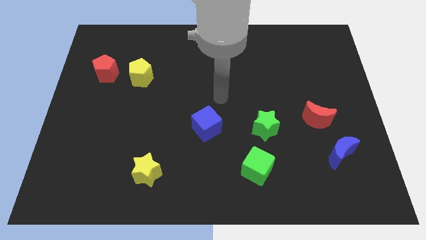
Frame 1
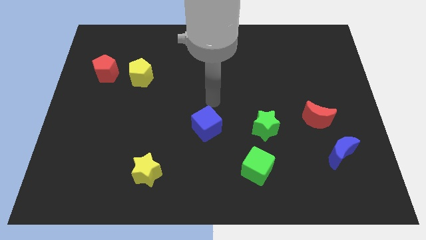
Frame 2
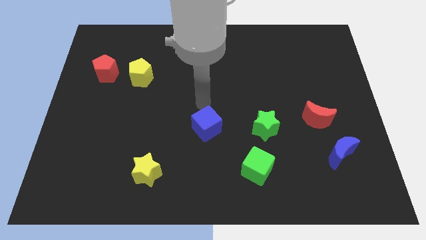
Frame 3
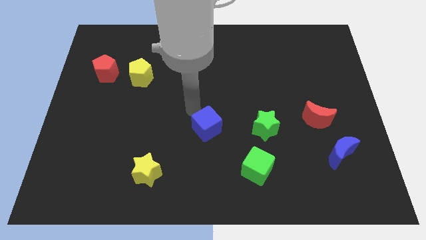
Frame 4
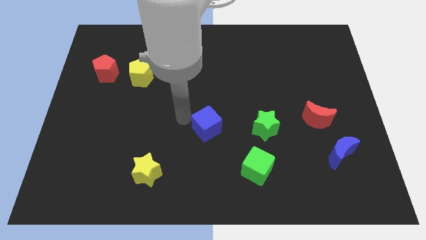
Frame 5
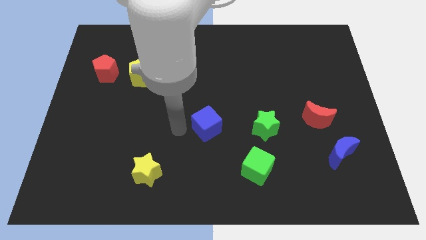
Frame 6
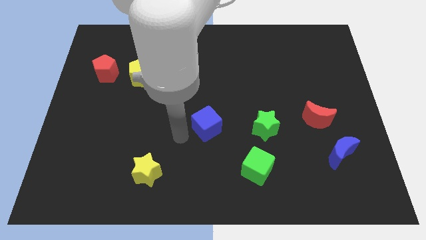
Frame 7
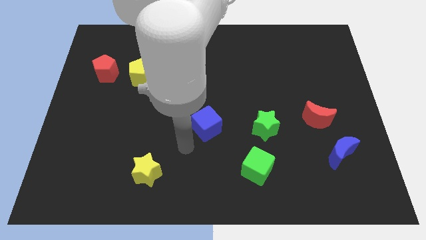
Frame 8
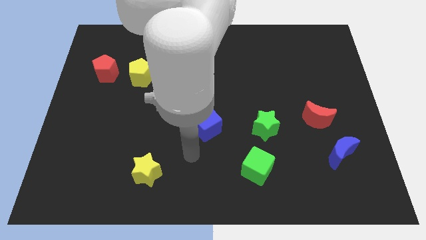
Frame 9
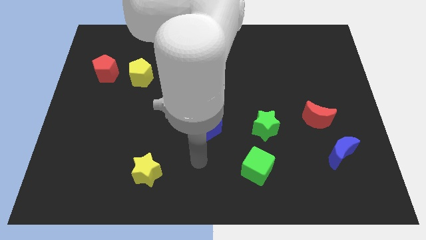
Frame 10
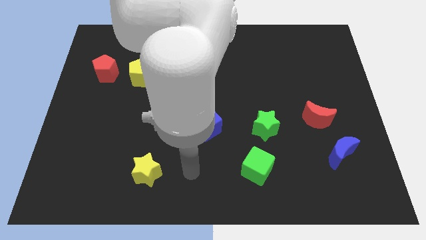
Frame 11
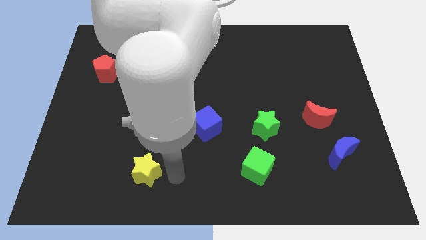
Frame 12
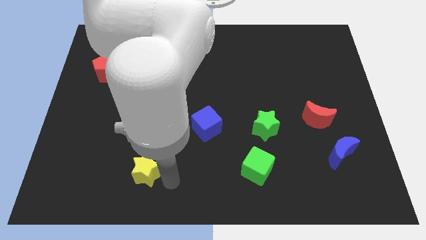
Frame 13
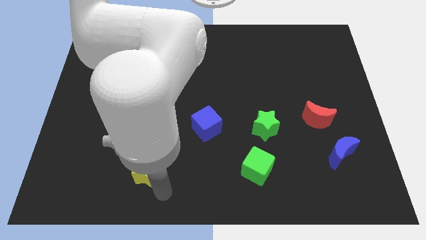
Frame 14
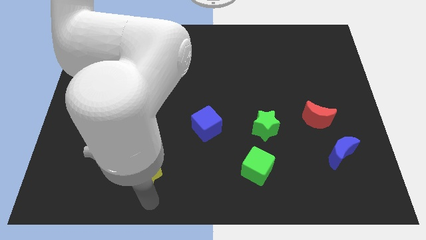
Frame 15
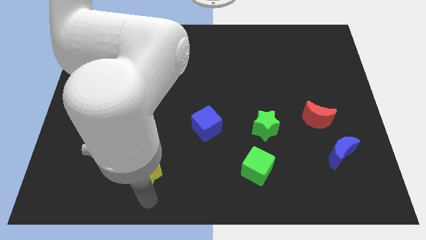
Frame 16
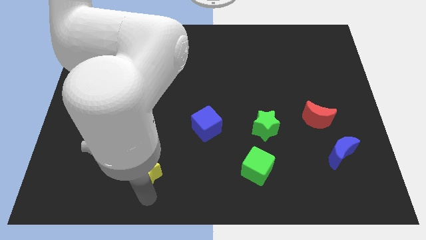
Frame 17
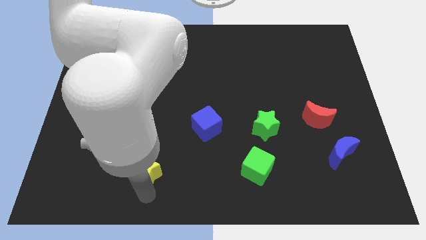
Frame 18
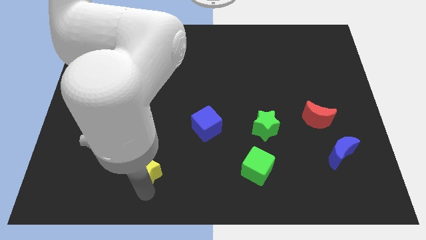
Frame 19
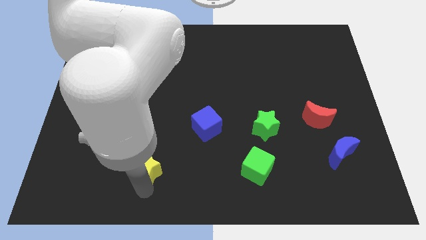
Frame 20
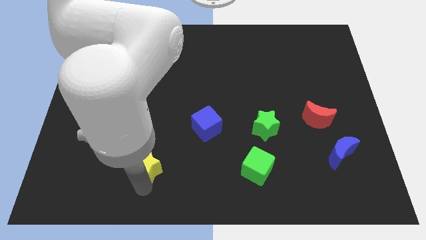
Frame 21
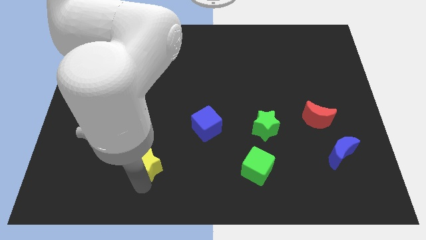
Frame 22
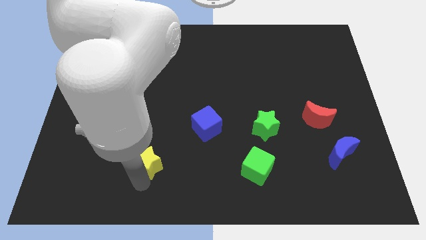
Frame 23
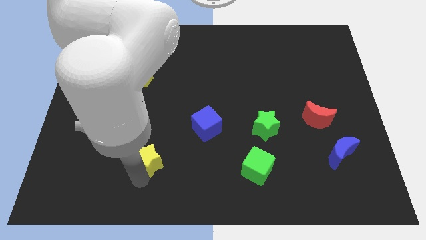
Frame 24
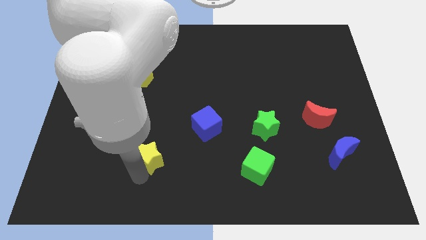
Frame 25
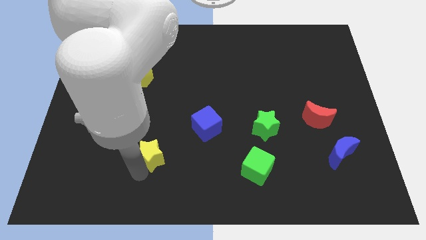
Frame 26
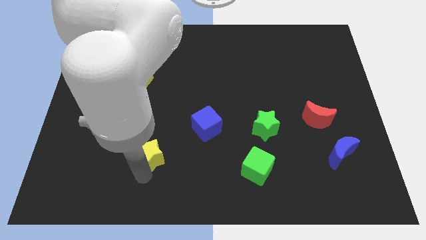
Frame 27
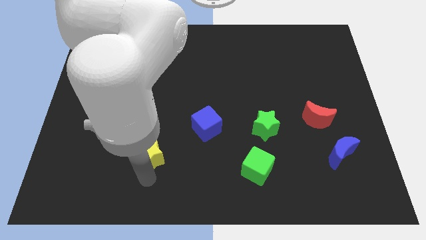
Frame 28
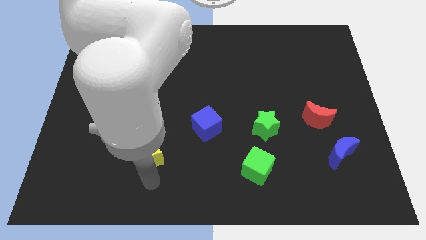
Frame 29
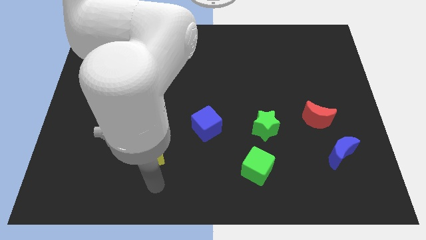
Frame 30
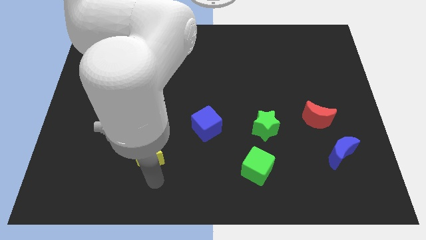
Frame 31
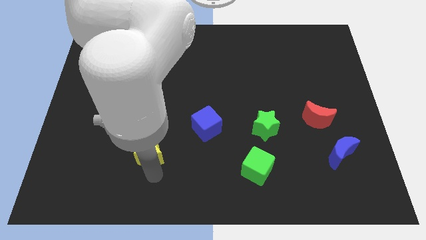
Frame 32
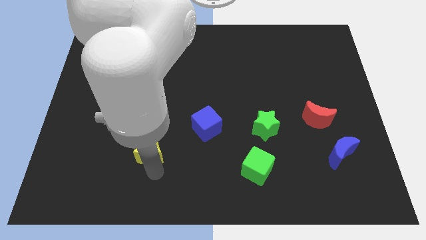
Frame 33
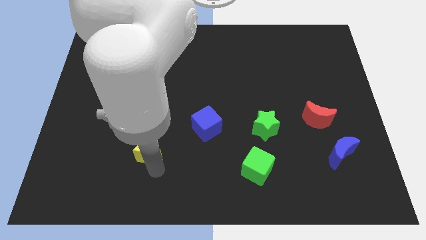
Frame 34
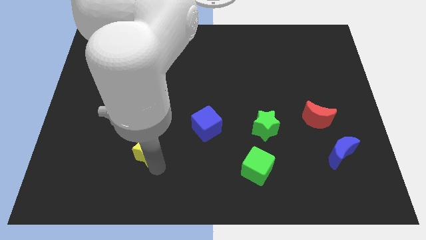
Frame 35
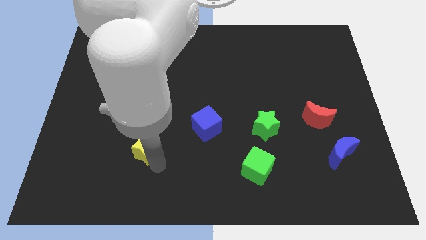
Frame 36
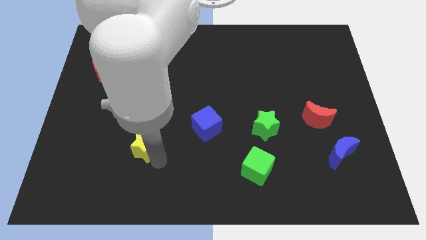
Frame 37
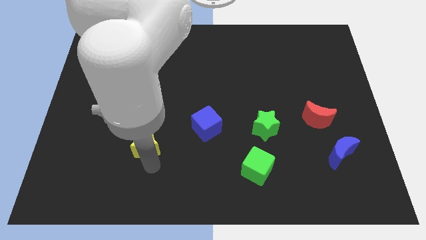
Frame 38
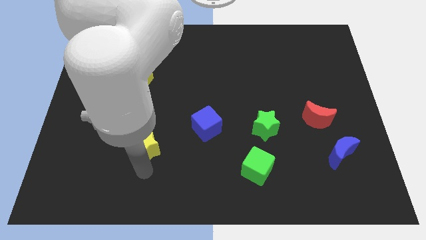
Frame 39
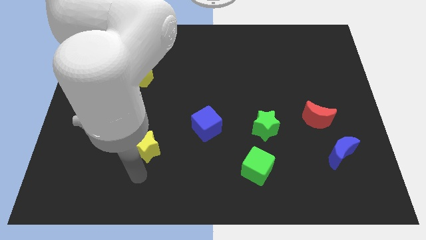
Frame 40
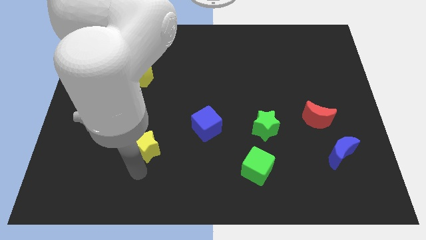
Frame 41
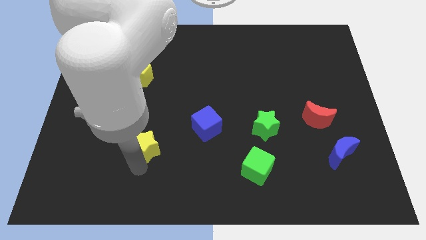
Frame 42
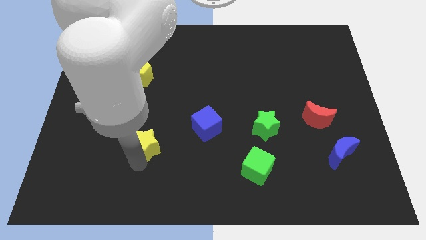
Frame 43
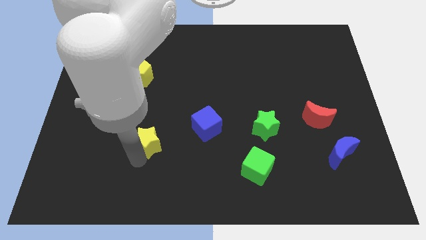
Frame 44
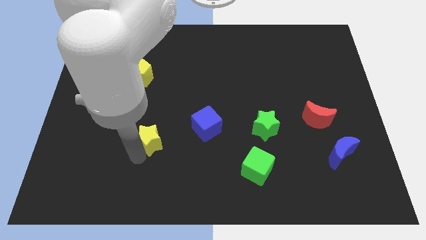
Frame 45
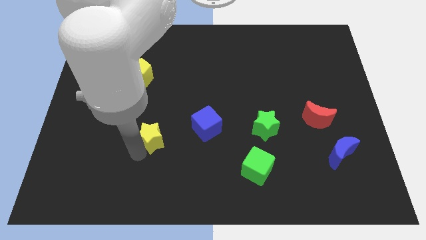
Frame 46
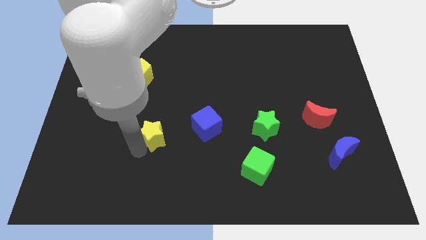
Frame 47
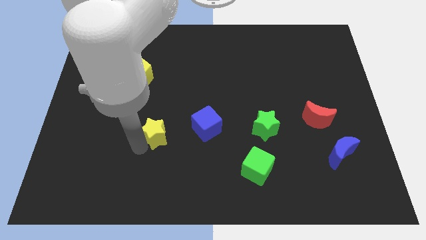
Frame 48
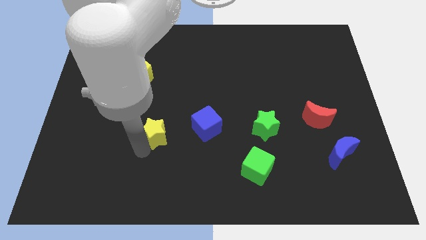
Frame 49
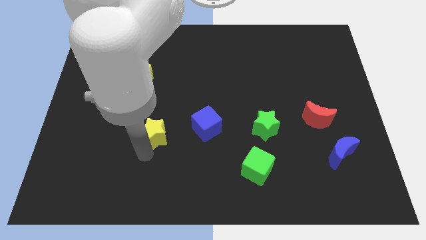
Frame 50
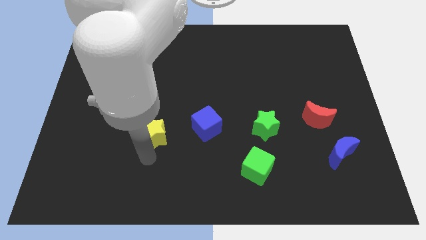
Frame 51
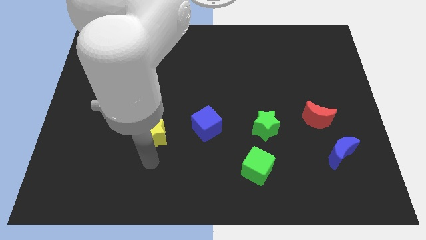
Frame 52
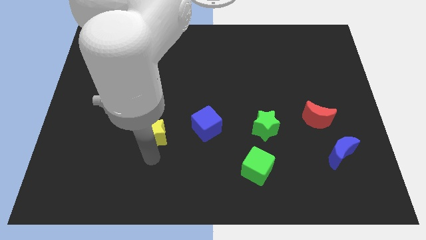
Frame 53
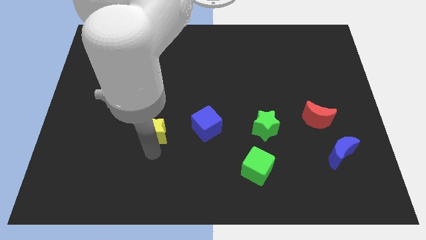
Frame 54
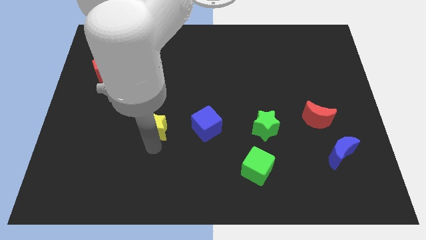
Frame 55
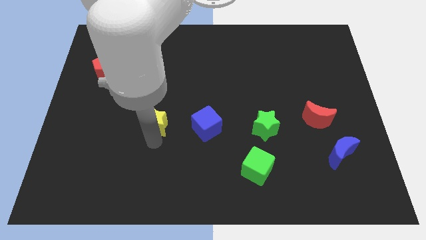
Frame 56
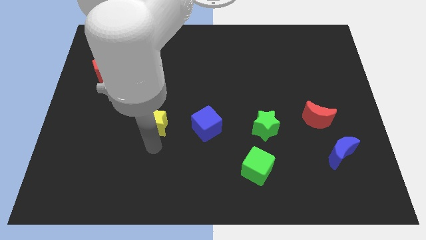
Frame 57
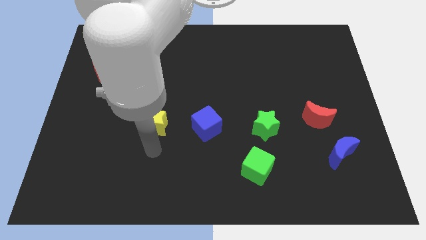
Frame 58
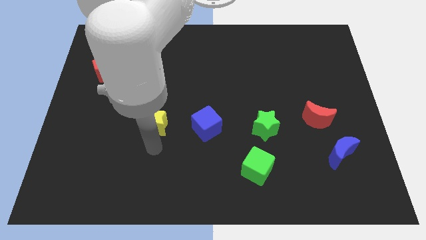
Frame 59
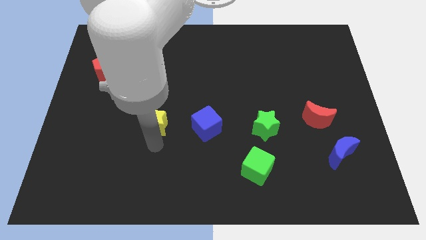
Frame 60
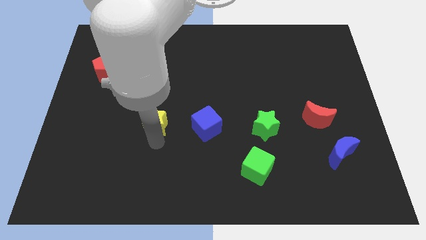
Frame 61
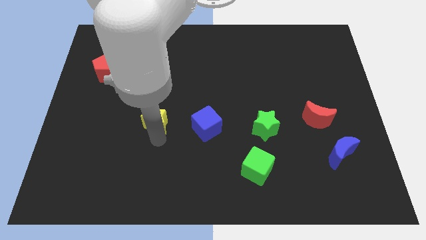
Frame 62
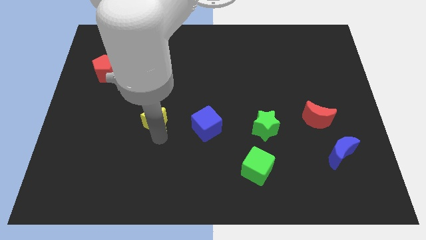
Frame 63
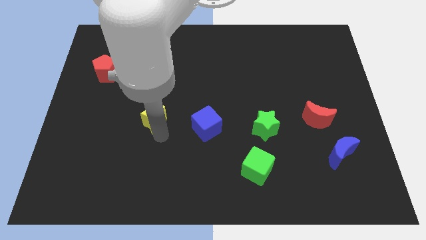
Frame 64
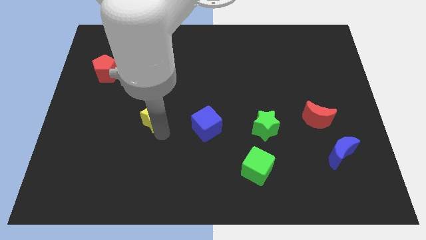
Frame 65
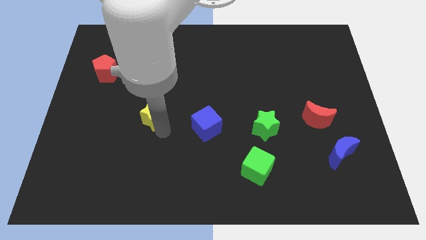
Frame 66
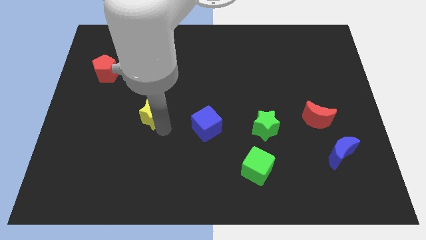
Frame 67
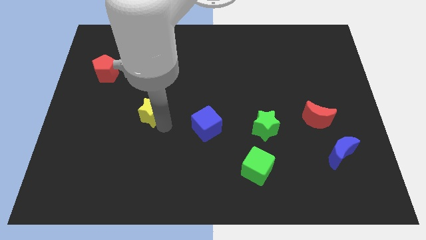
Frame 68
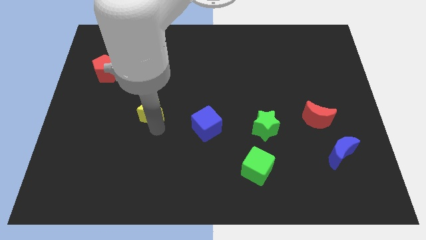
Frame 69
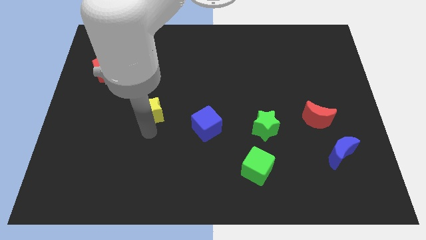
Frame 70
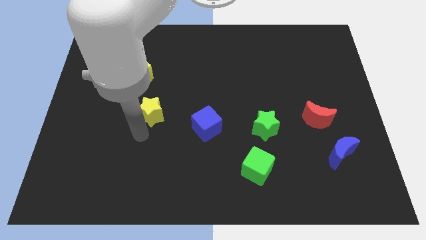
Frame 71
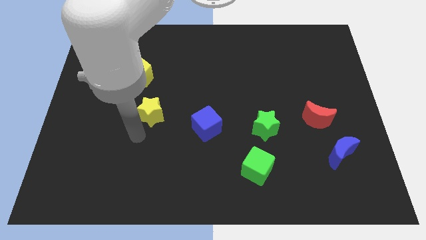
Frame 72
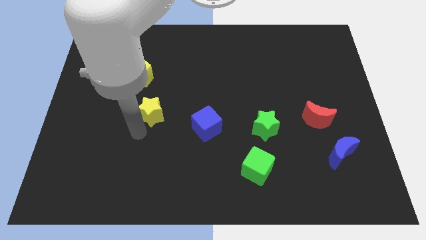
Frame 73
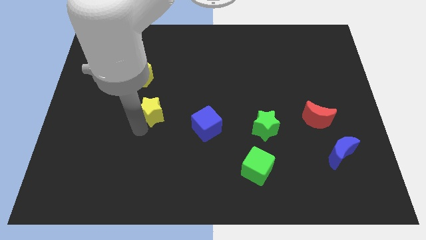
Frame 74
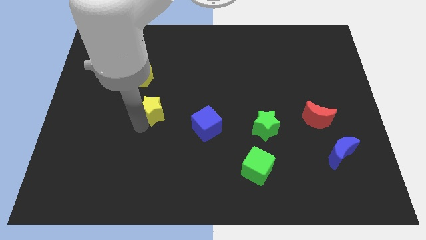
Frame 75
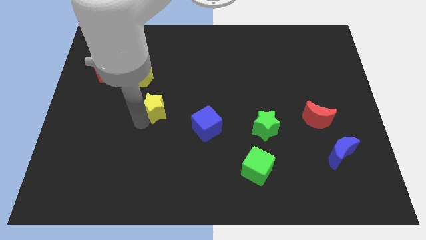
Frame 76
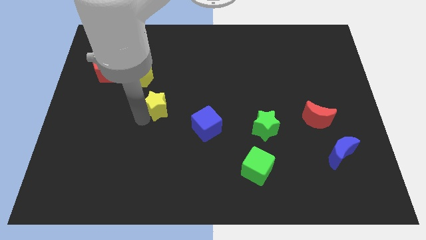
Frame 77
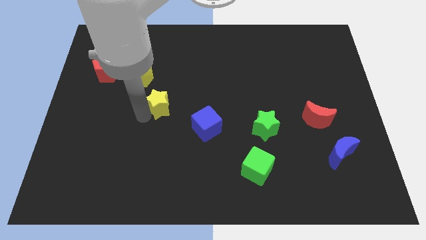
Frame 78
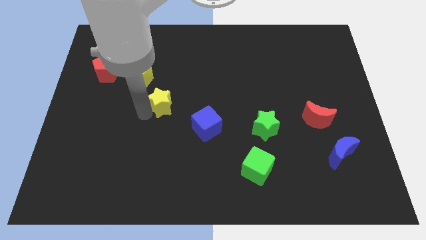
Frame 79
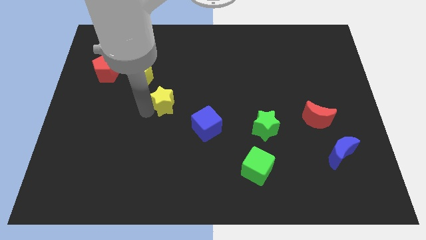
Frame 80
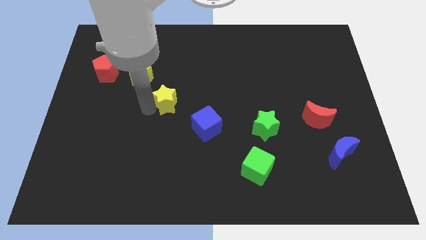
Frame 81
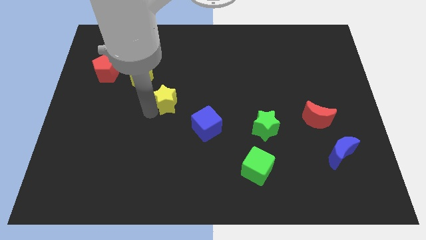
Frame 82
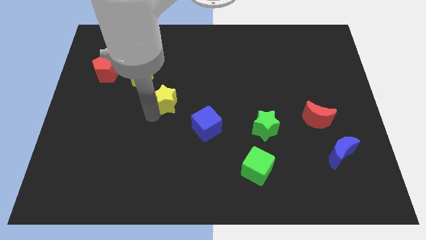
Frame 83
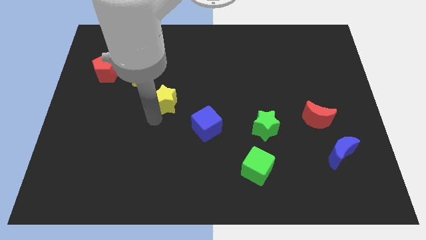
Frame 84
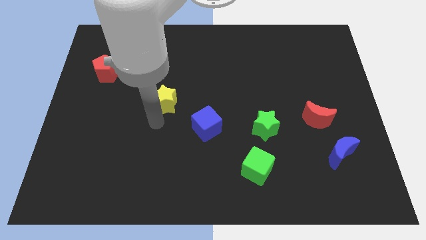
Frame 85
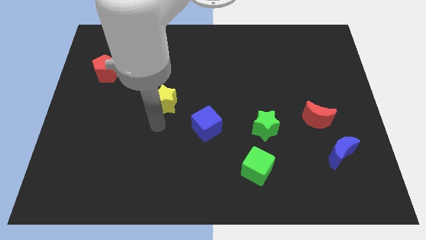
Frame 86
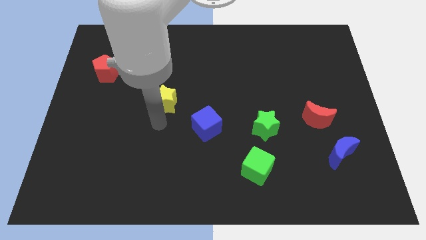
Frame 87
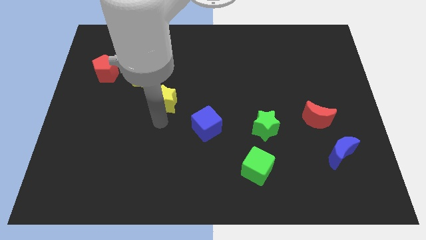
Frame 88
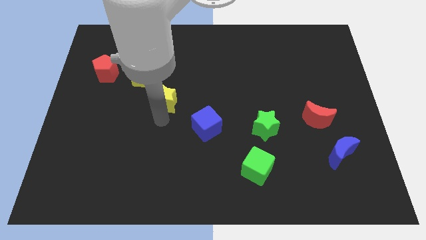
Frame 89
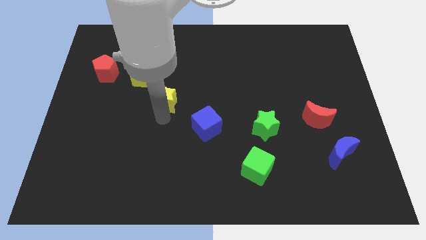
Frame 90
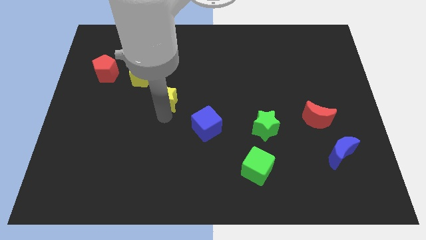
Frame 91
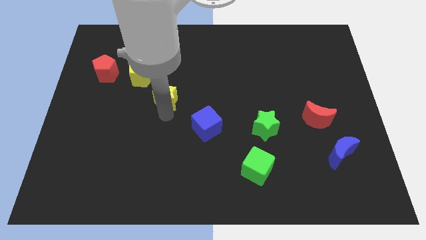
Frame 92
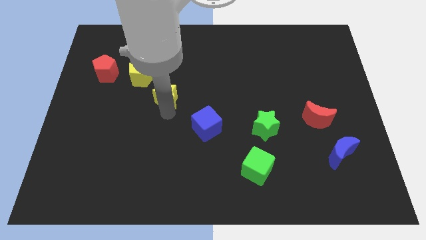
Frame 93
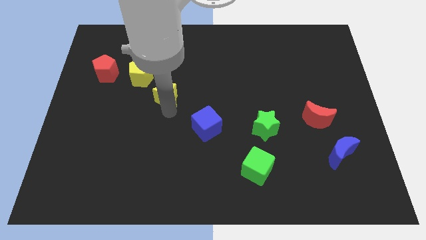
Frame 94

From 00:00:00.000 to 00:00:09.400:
move the yellow star up
